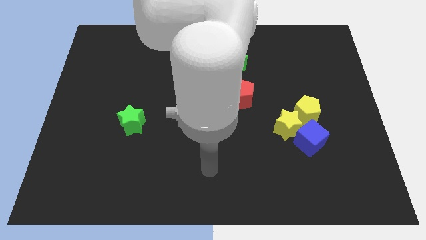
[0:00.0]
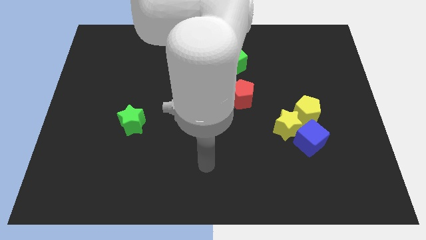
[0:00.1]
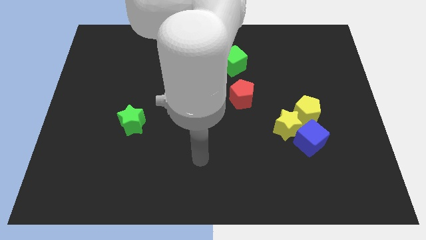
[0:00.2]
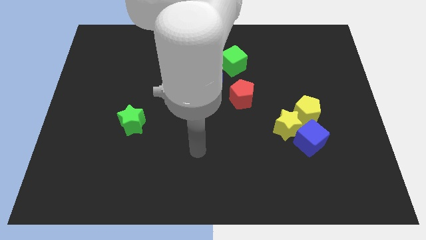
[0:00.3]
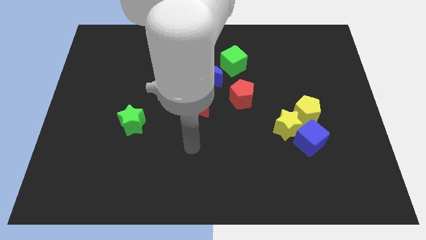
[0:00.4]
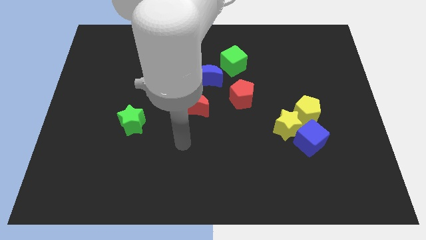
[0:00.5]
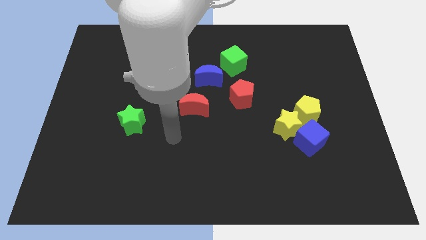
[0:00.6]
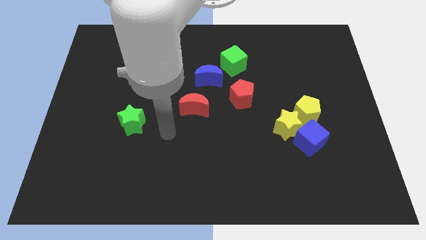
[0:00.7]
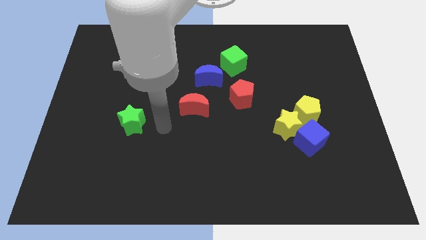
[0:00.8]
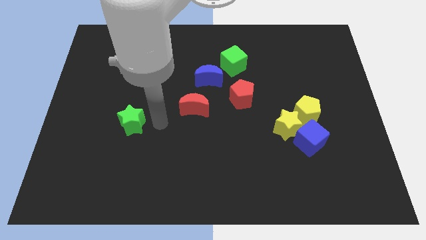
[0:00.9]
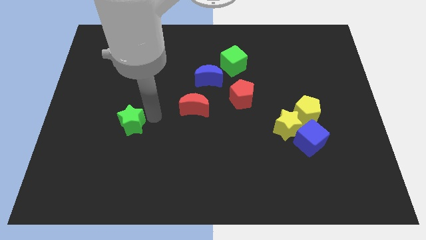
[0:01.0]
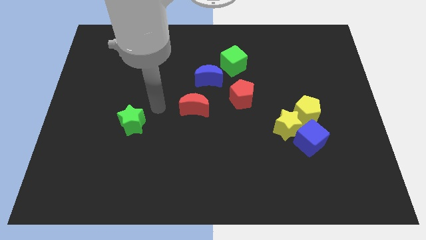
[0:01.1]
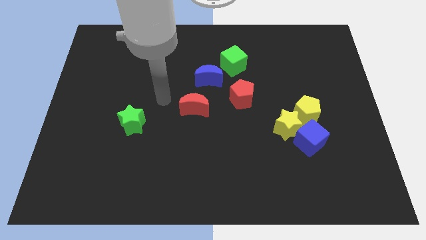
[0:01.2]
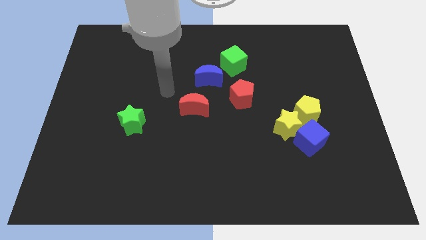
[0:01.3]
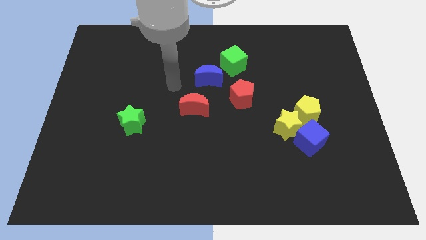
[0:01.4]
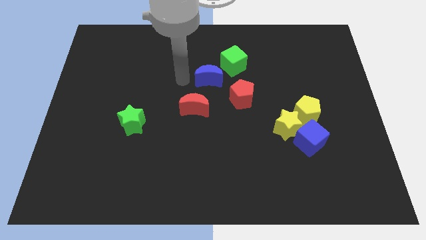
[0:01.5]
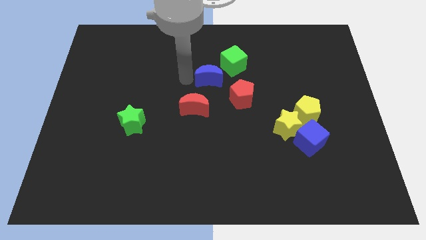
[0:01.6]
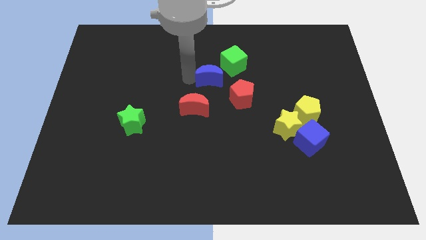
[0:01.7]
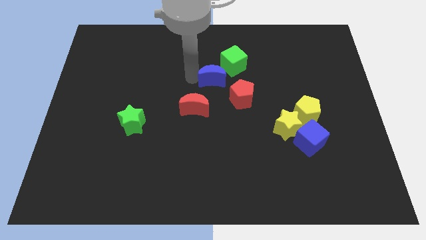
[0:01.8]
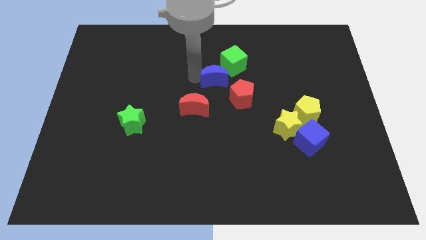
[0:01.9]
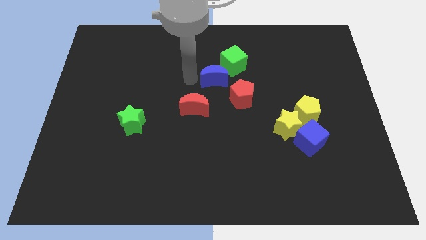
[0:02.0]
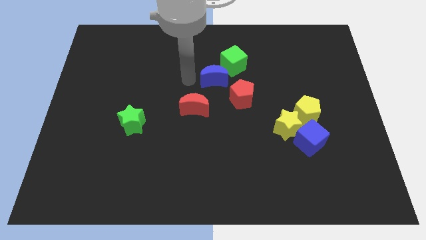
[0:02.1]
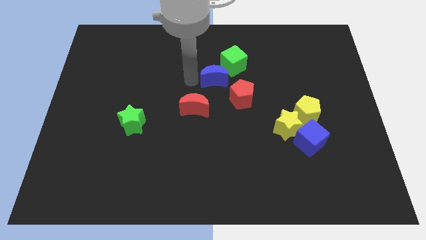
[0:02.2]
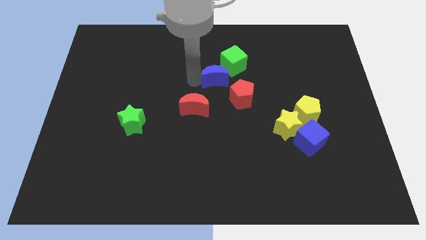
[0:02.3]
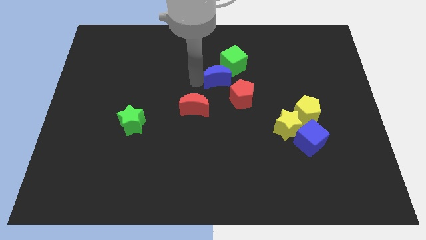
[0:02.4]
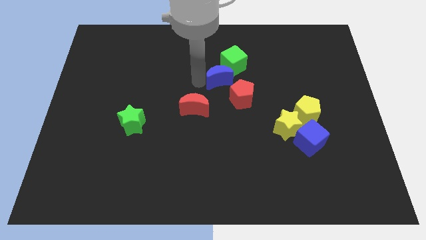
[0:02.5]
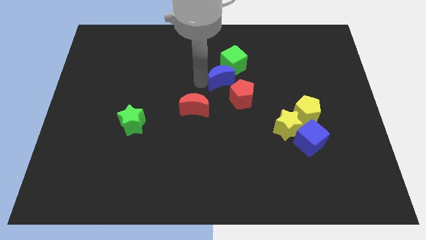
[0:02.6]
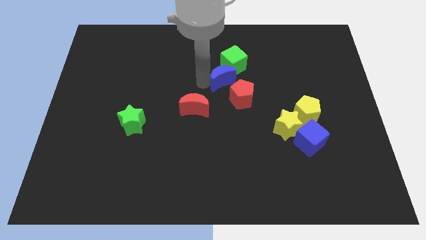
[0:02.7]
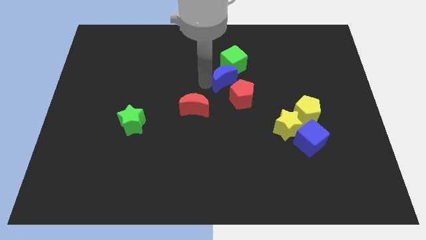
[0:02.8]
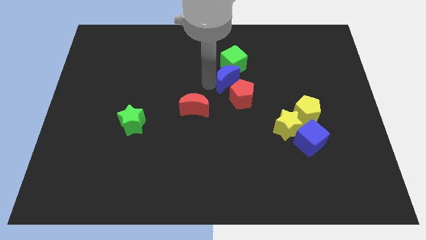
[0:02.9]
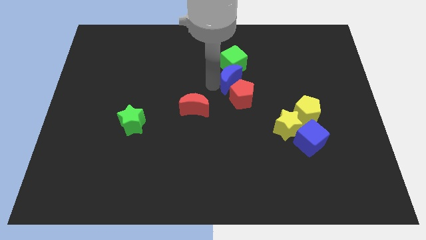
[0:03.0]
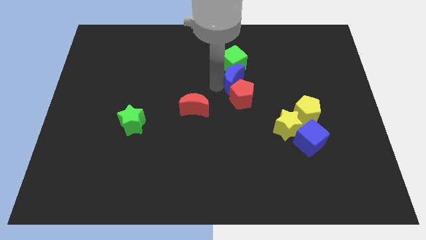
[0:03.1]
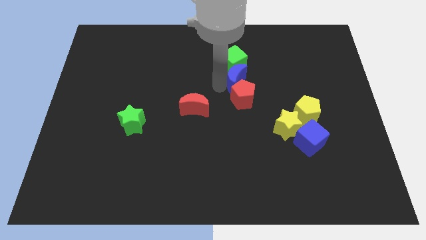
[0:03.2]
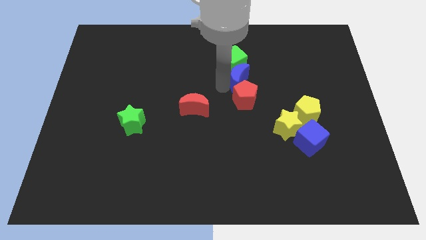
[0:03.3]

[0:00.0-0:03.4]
push the blue moon to the right a little

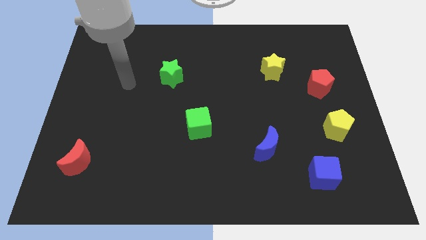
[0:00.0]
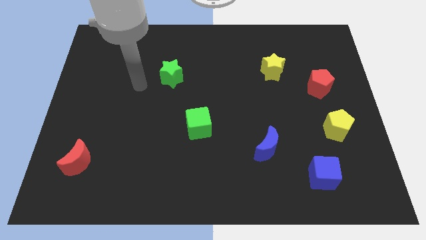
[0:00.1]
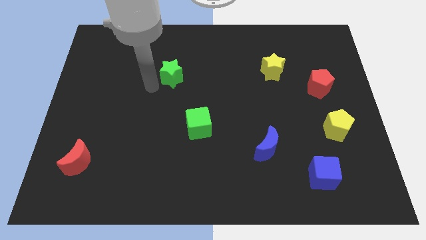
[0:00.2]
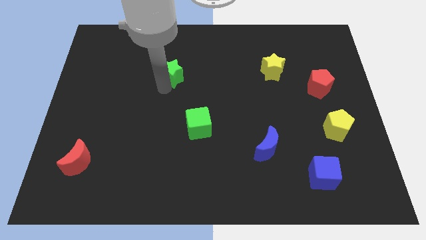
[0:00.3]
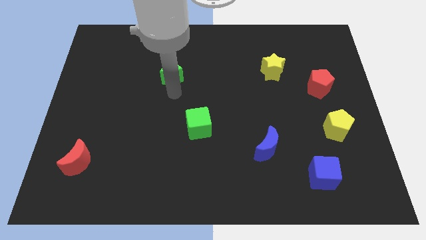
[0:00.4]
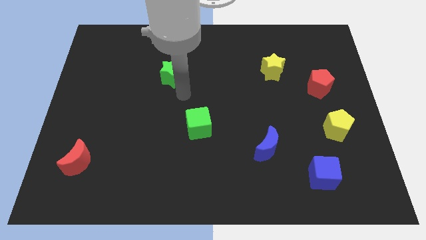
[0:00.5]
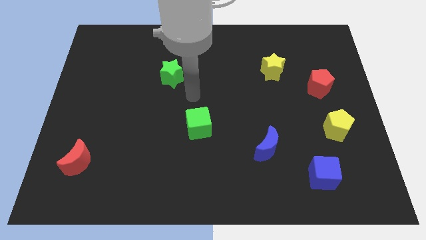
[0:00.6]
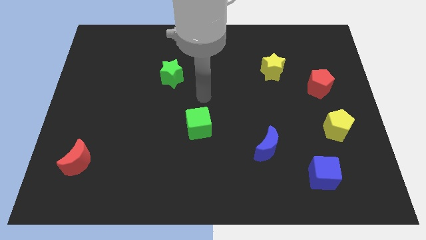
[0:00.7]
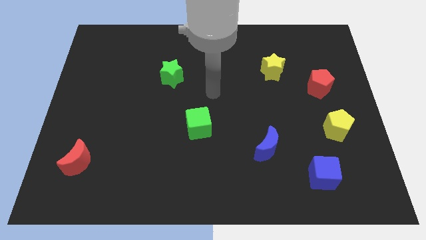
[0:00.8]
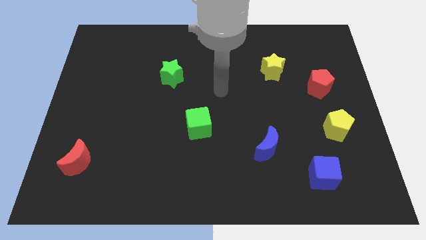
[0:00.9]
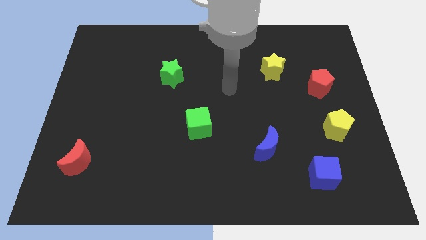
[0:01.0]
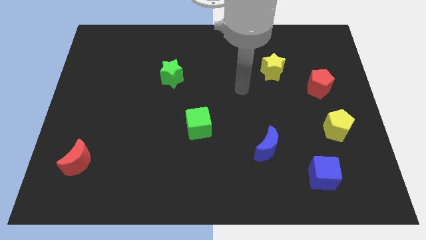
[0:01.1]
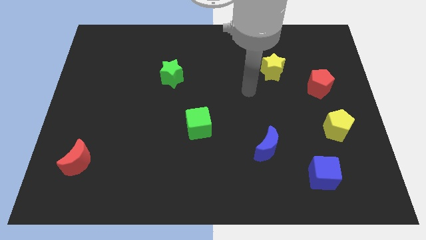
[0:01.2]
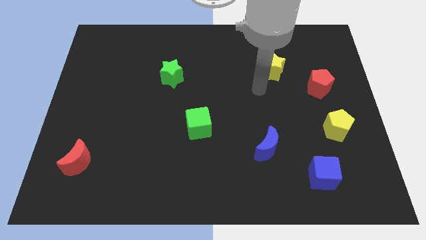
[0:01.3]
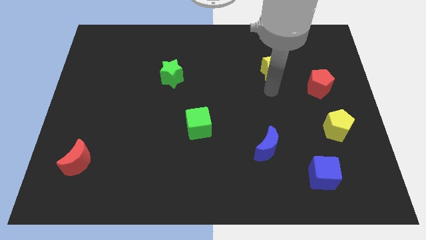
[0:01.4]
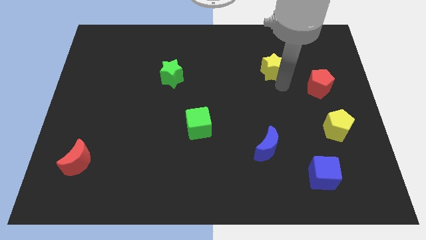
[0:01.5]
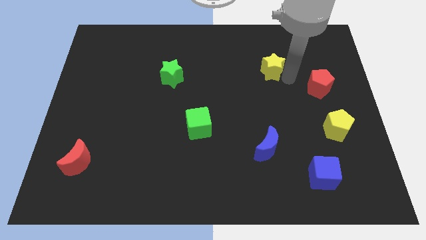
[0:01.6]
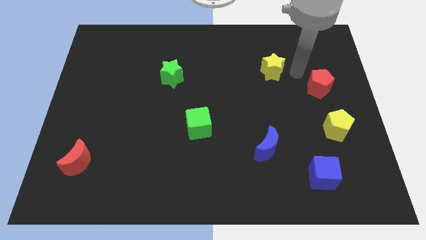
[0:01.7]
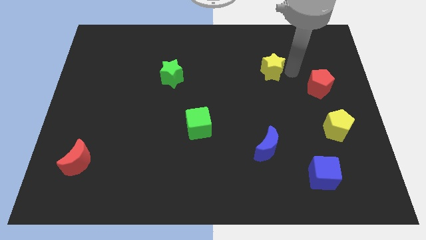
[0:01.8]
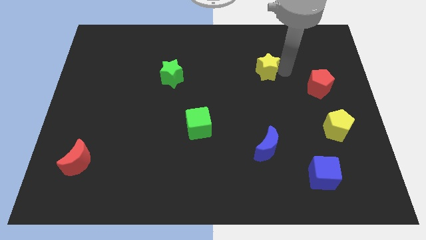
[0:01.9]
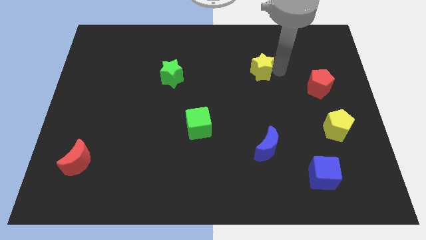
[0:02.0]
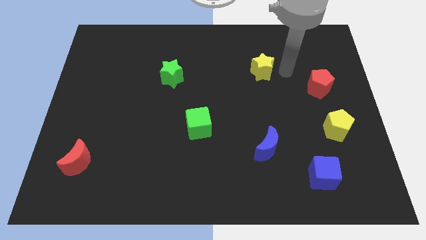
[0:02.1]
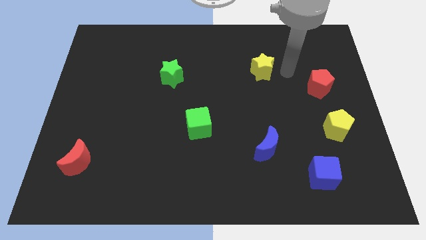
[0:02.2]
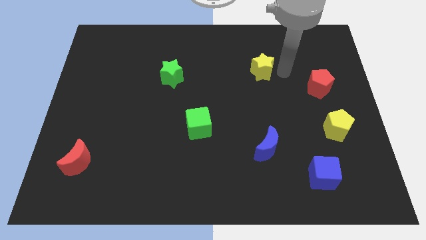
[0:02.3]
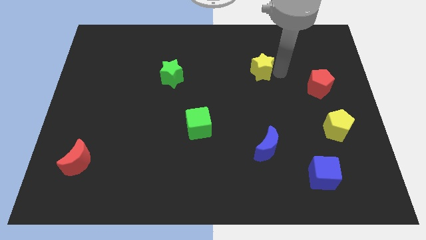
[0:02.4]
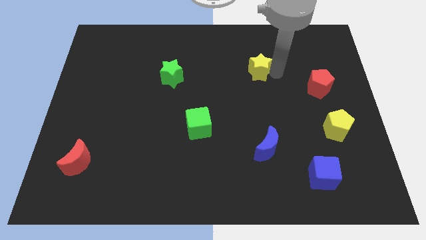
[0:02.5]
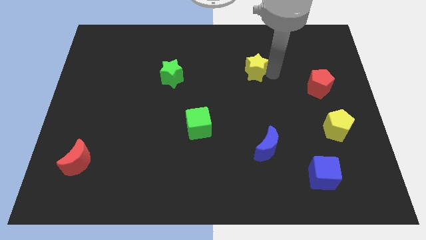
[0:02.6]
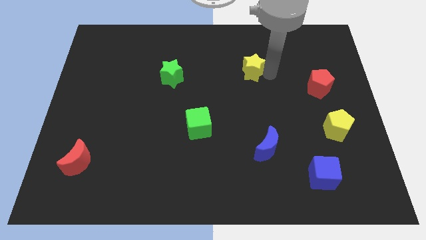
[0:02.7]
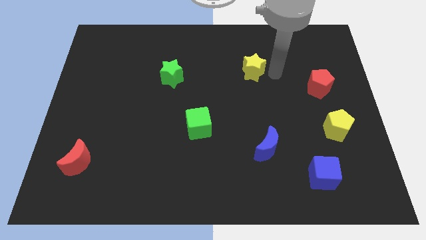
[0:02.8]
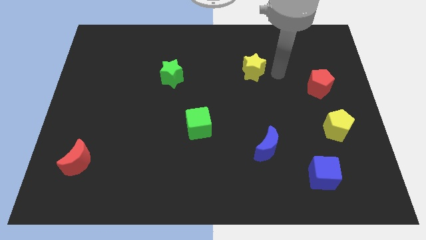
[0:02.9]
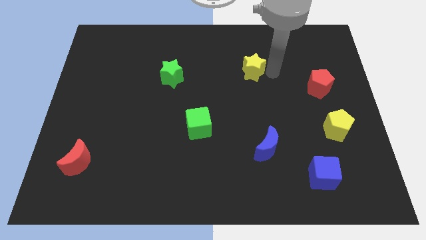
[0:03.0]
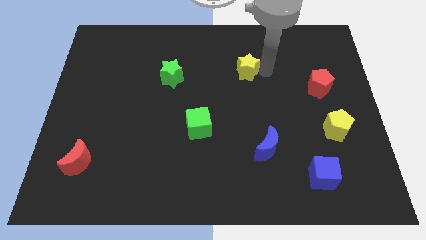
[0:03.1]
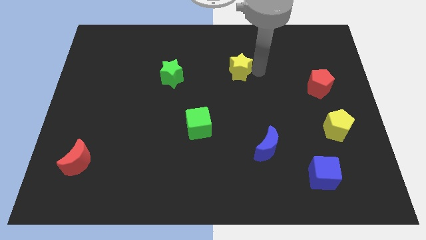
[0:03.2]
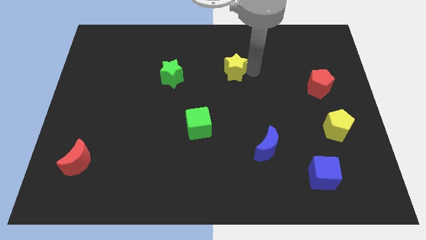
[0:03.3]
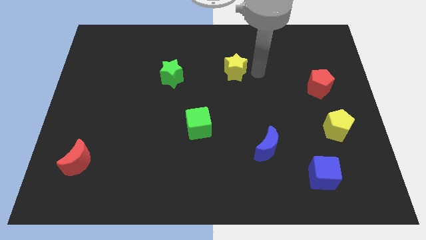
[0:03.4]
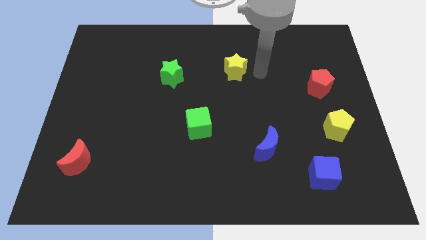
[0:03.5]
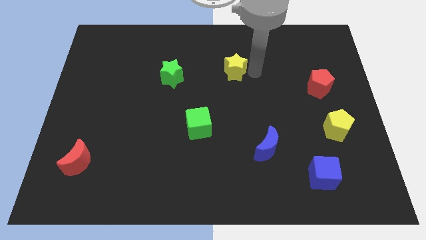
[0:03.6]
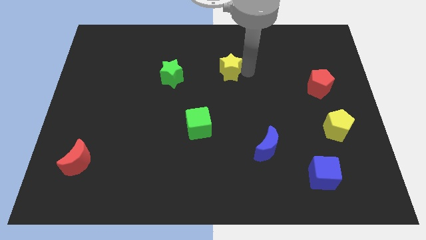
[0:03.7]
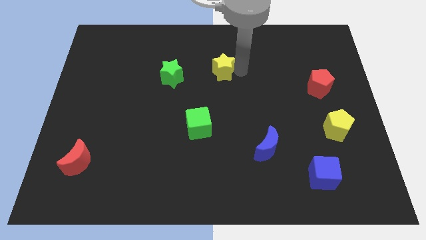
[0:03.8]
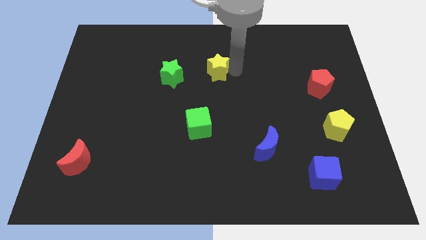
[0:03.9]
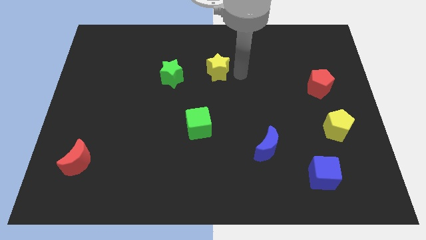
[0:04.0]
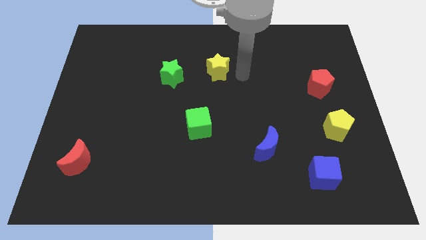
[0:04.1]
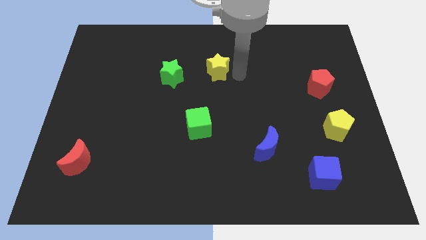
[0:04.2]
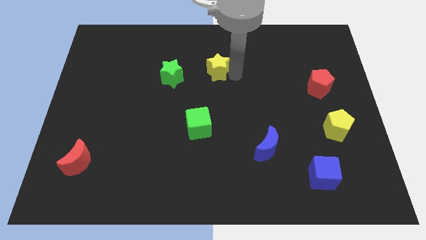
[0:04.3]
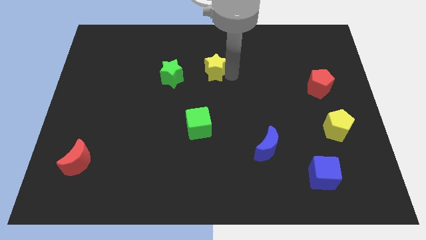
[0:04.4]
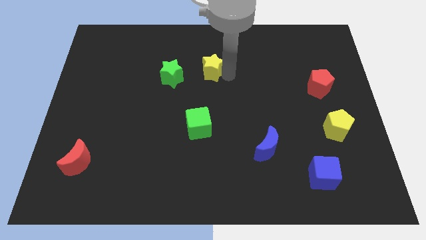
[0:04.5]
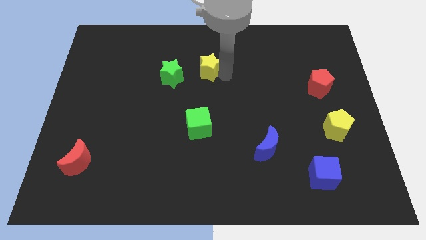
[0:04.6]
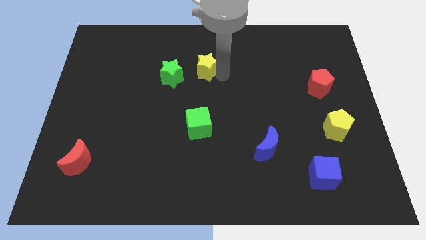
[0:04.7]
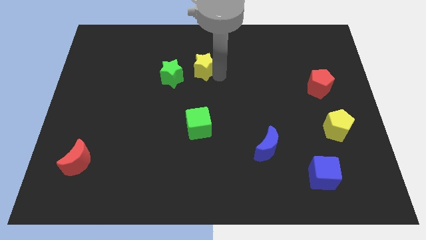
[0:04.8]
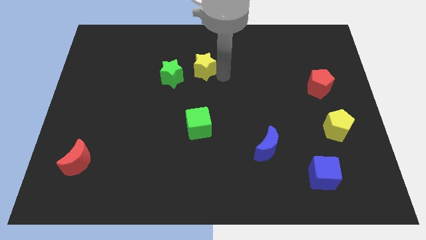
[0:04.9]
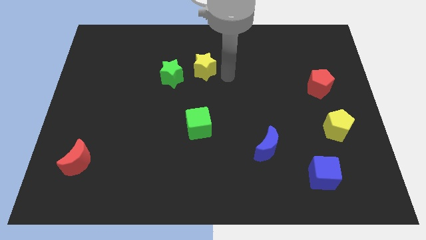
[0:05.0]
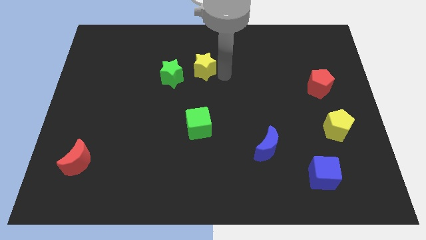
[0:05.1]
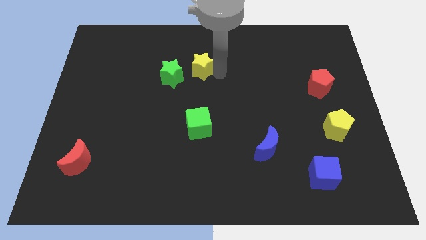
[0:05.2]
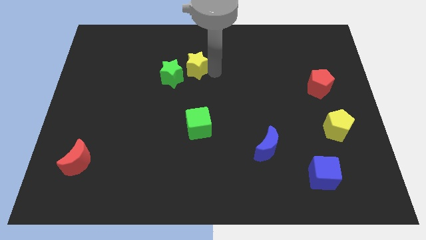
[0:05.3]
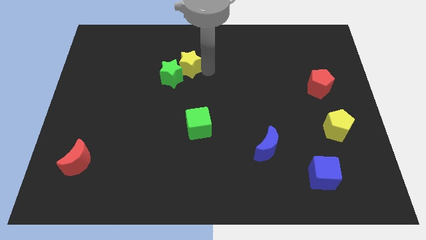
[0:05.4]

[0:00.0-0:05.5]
push the yellow star to the left
